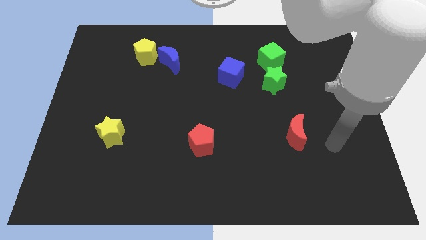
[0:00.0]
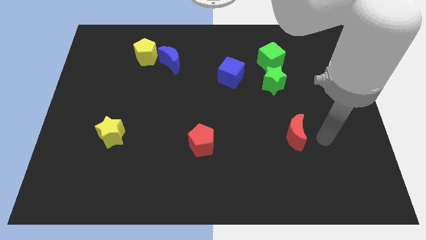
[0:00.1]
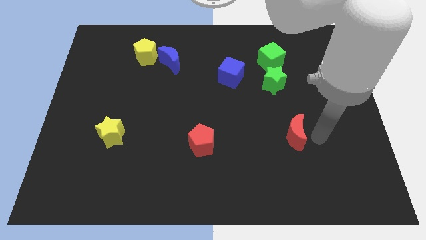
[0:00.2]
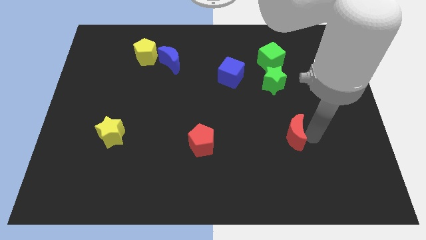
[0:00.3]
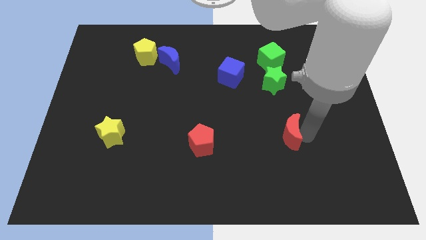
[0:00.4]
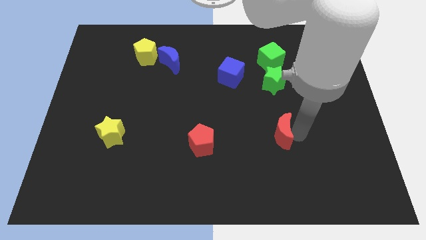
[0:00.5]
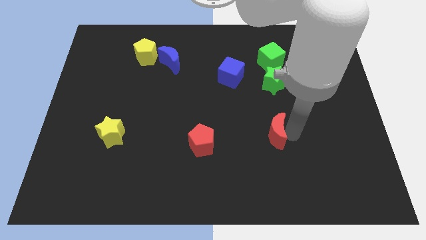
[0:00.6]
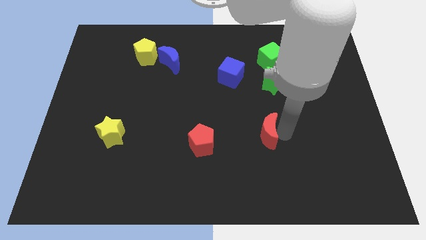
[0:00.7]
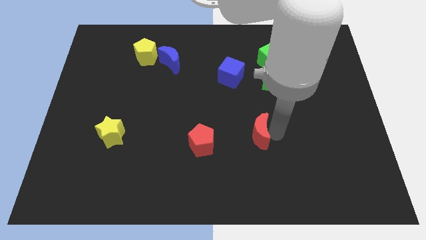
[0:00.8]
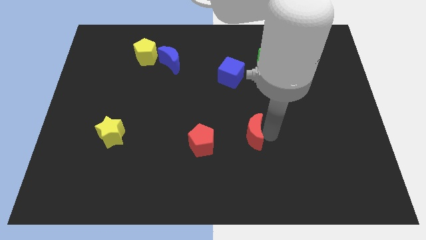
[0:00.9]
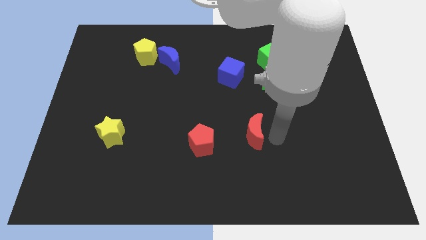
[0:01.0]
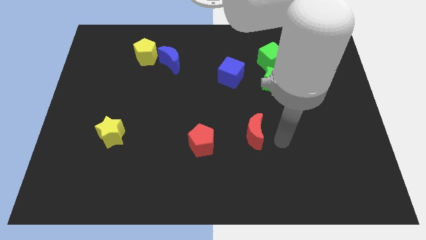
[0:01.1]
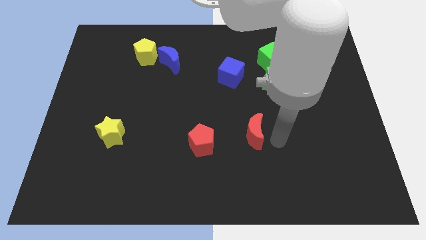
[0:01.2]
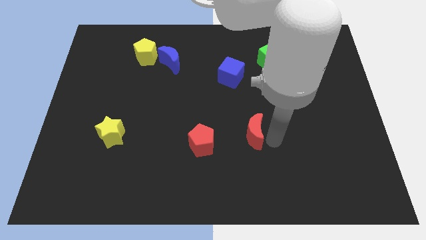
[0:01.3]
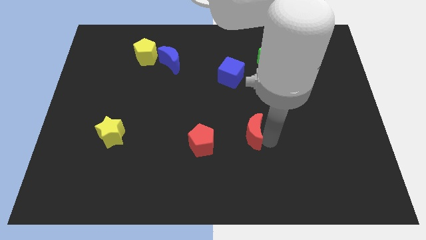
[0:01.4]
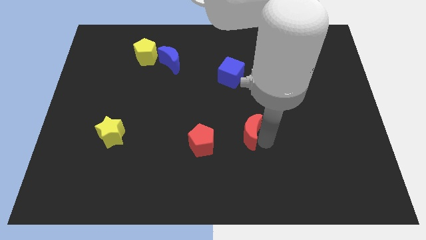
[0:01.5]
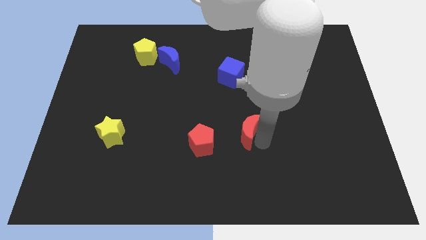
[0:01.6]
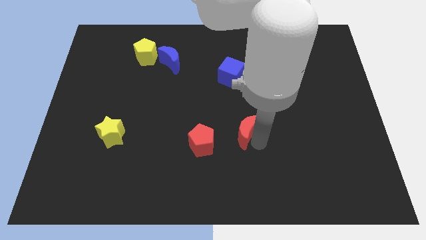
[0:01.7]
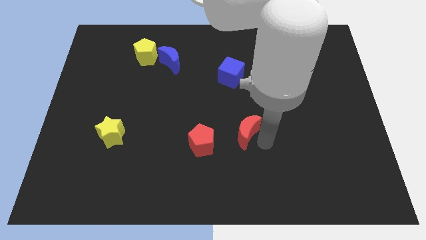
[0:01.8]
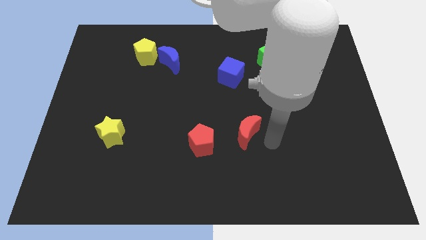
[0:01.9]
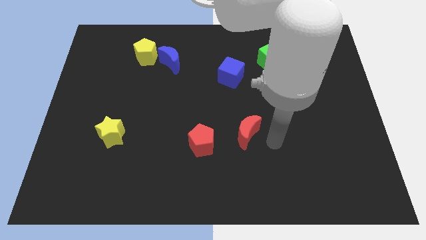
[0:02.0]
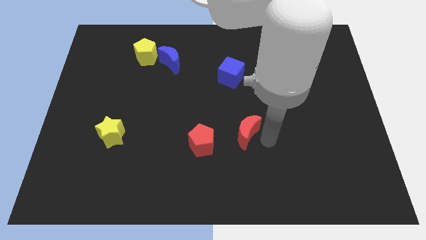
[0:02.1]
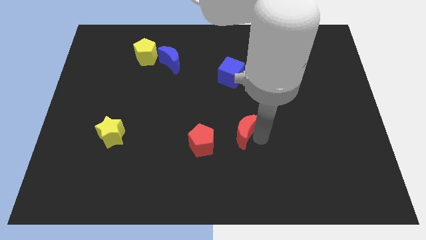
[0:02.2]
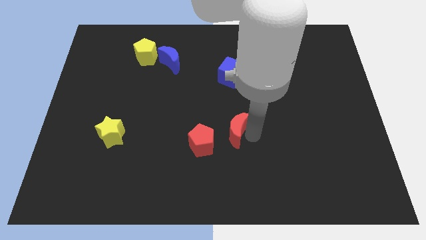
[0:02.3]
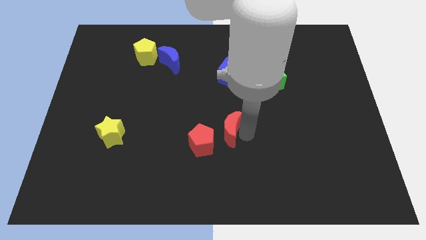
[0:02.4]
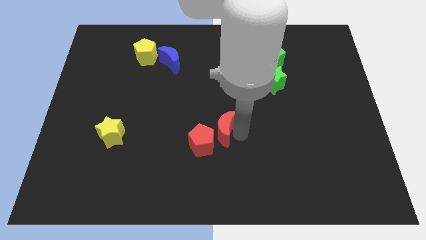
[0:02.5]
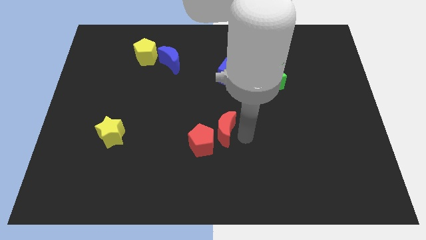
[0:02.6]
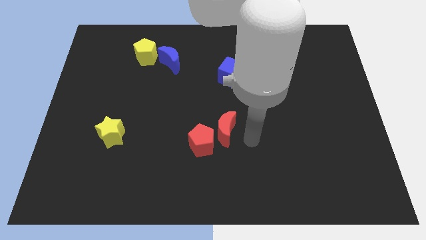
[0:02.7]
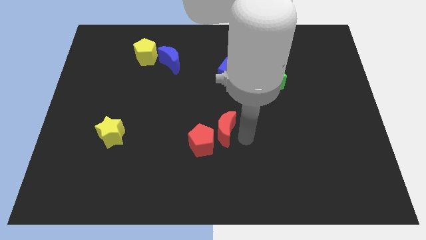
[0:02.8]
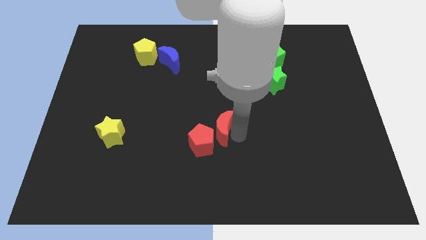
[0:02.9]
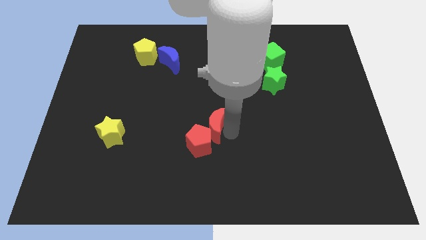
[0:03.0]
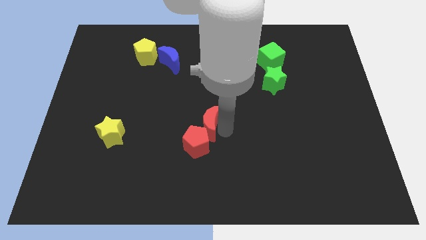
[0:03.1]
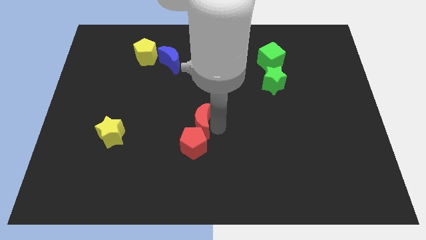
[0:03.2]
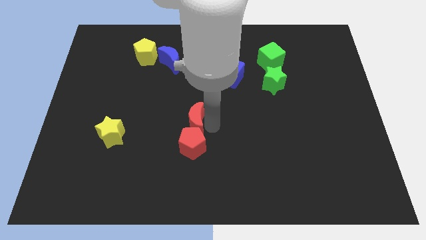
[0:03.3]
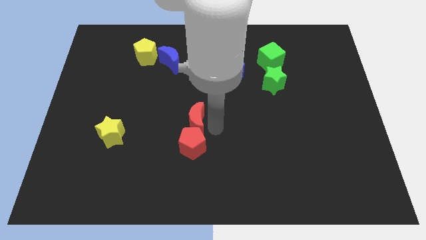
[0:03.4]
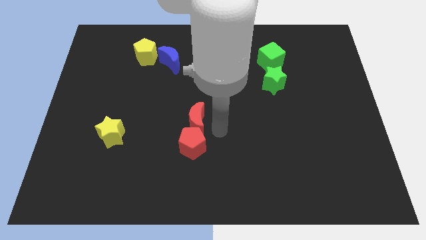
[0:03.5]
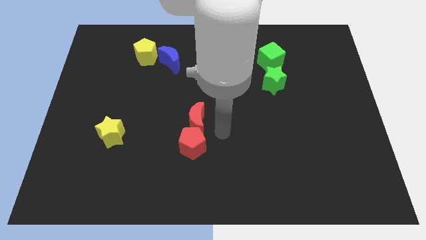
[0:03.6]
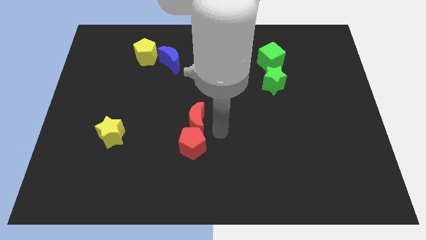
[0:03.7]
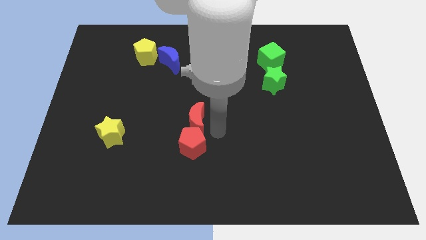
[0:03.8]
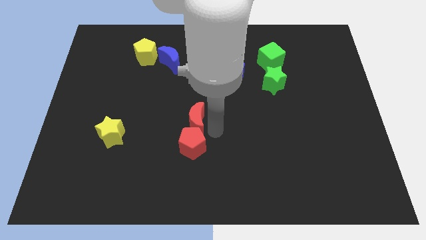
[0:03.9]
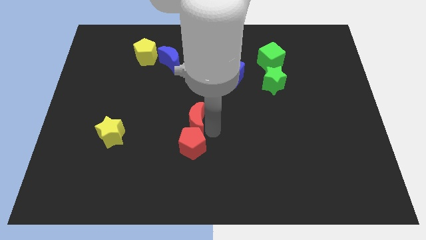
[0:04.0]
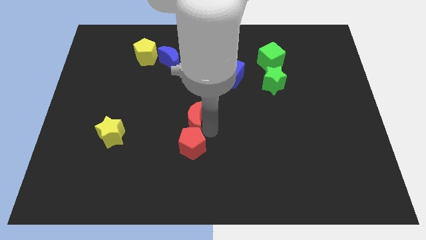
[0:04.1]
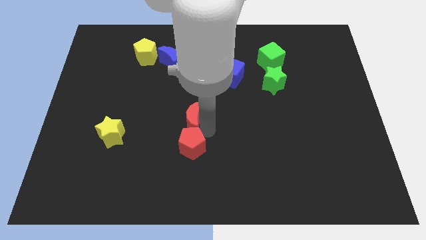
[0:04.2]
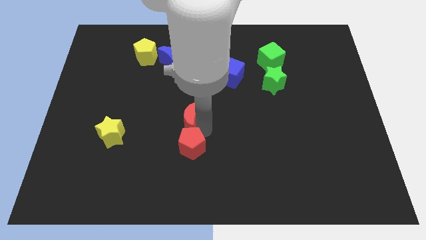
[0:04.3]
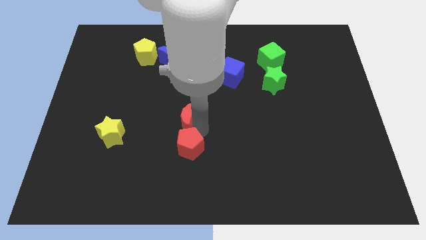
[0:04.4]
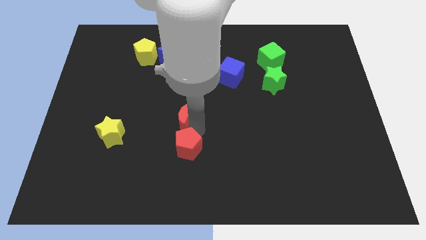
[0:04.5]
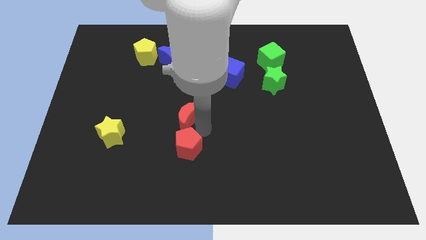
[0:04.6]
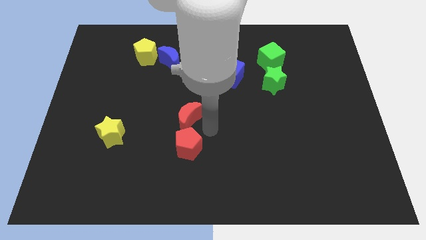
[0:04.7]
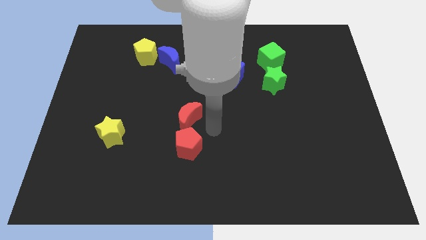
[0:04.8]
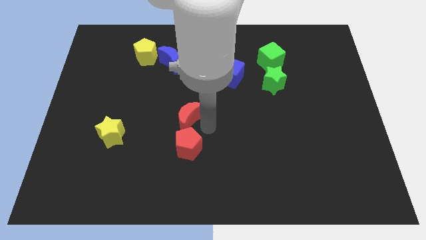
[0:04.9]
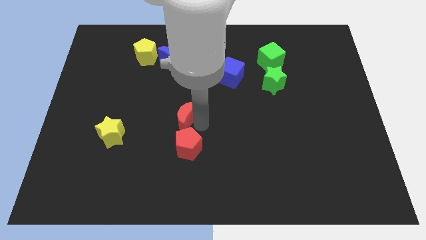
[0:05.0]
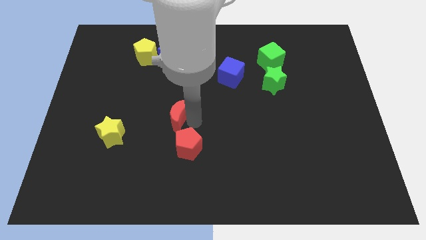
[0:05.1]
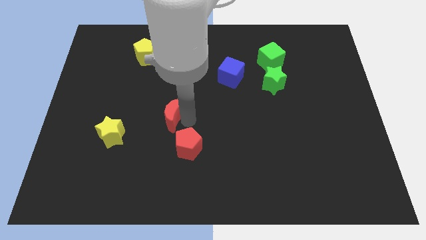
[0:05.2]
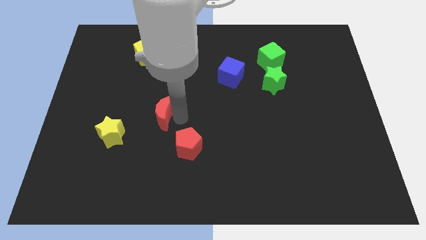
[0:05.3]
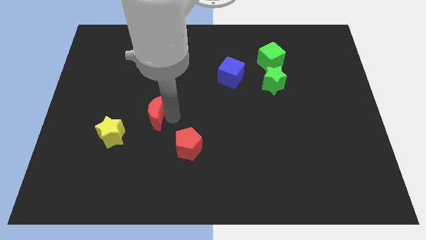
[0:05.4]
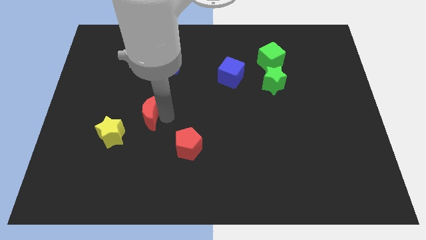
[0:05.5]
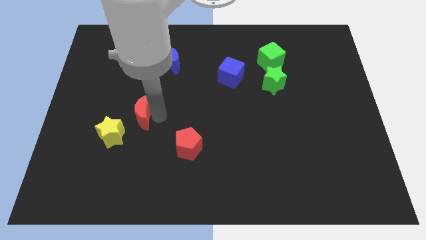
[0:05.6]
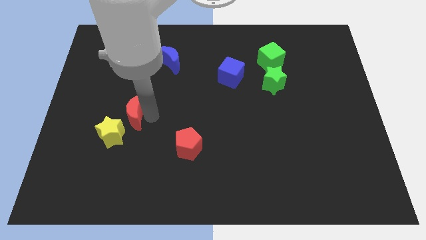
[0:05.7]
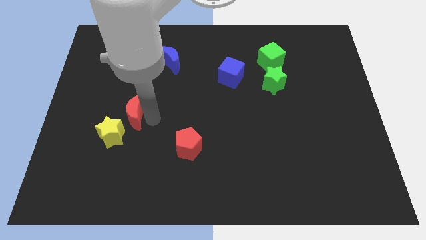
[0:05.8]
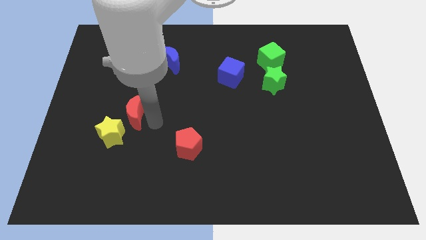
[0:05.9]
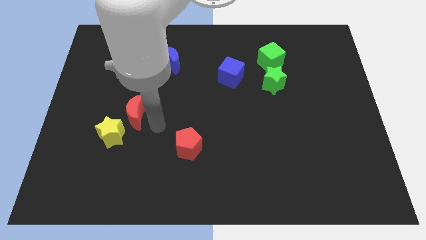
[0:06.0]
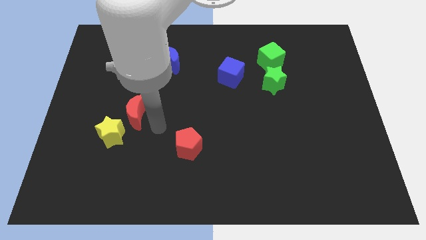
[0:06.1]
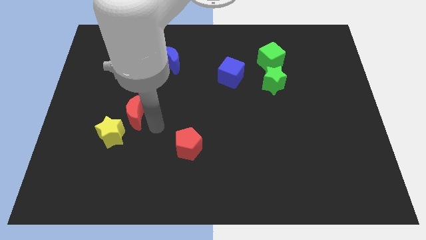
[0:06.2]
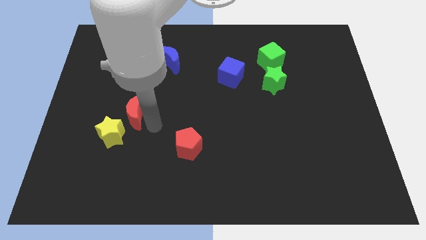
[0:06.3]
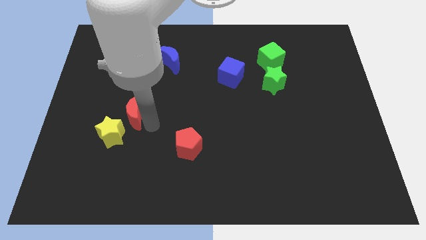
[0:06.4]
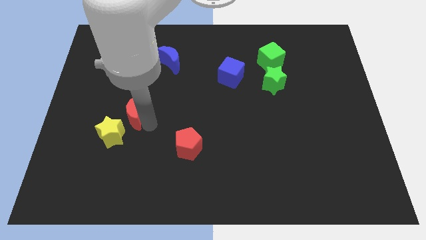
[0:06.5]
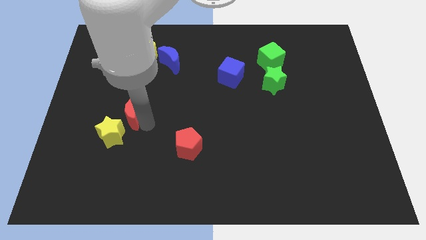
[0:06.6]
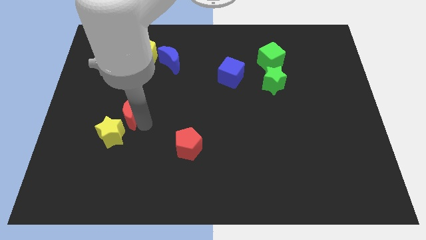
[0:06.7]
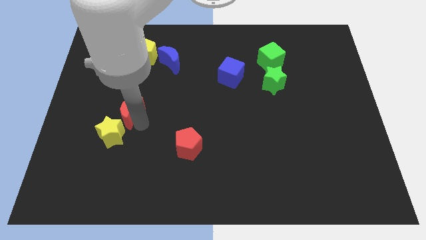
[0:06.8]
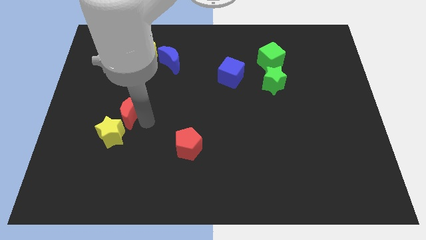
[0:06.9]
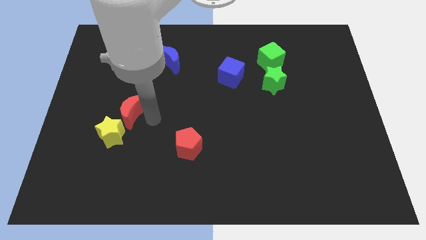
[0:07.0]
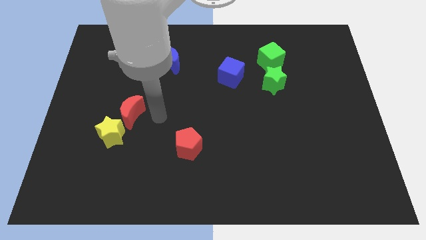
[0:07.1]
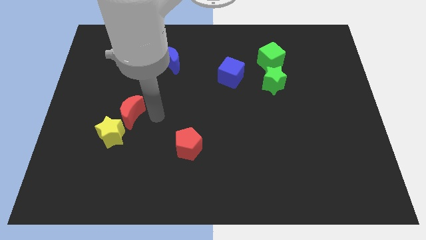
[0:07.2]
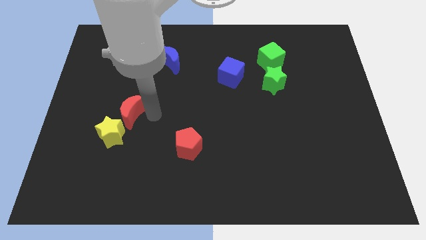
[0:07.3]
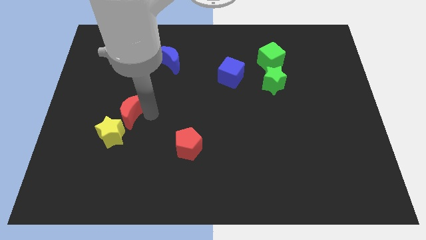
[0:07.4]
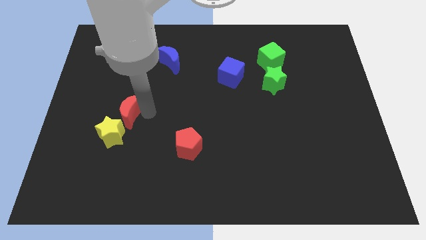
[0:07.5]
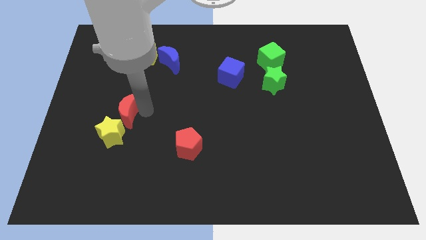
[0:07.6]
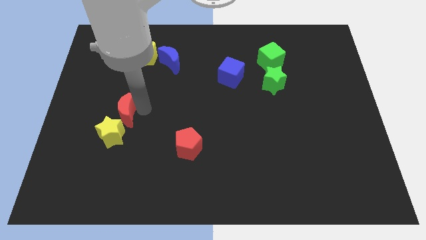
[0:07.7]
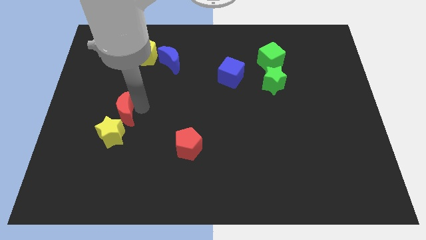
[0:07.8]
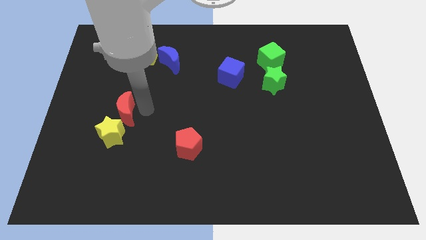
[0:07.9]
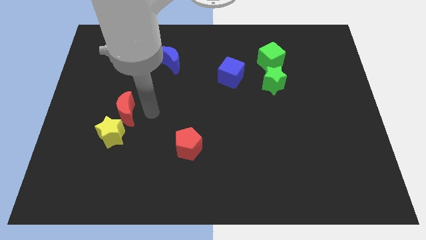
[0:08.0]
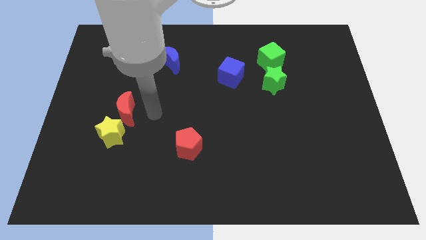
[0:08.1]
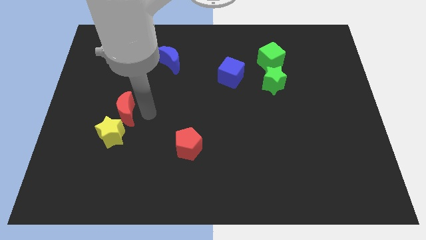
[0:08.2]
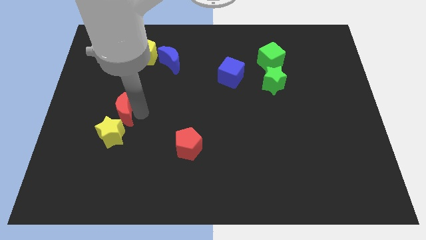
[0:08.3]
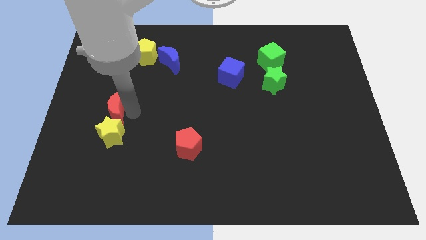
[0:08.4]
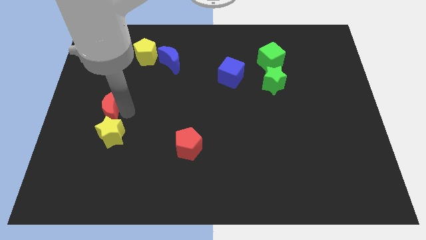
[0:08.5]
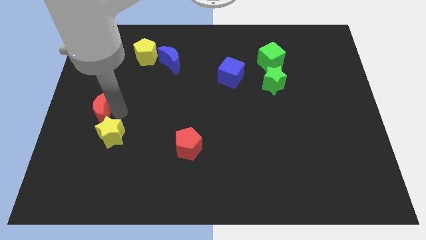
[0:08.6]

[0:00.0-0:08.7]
push the red moon to the left side of the board
